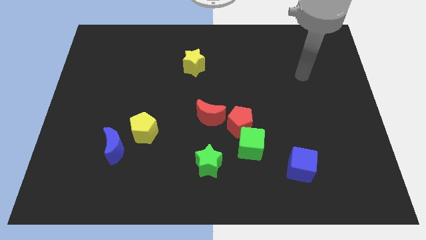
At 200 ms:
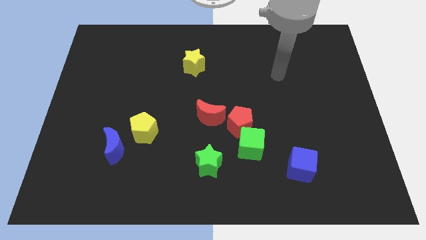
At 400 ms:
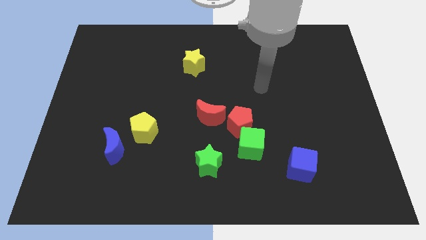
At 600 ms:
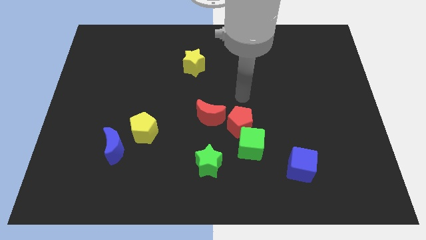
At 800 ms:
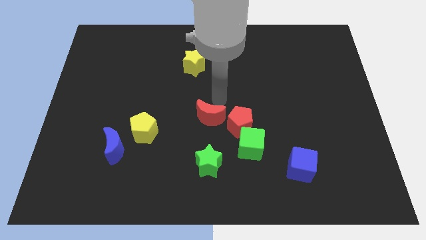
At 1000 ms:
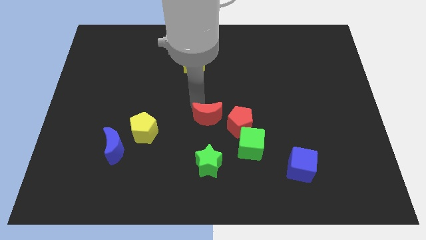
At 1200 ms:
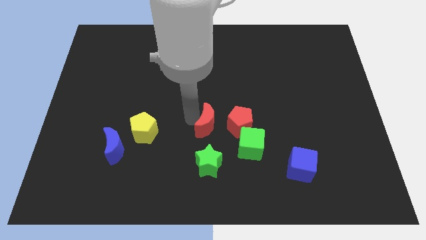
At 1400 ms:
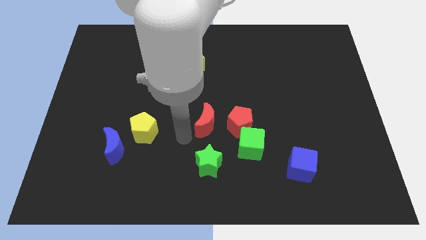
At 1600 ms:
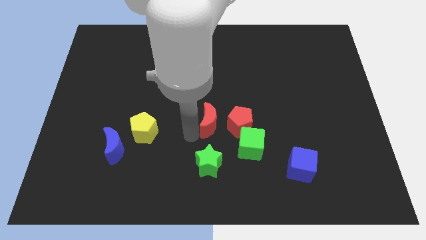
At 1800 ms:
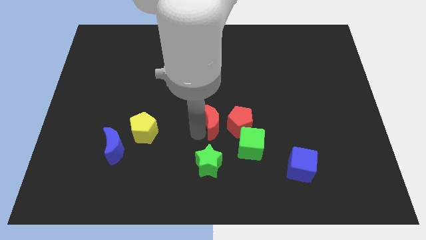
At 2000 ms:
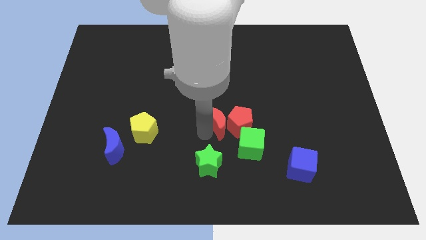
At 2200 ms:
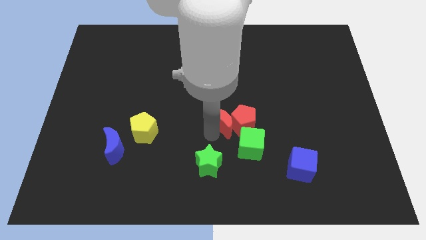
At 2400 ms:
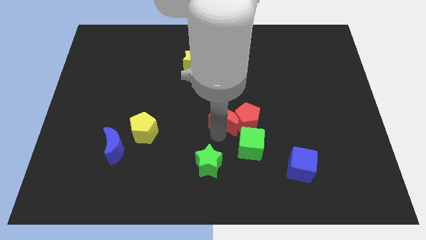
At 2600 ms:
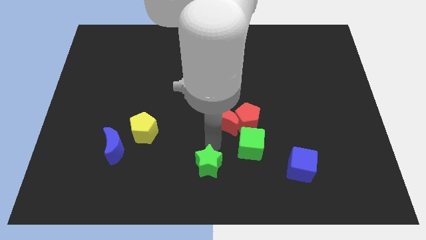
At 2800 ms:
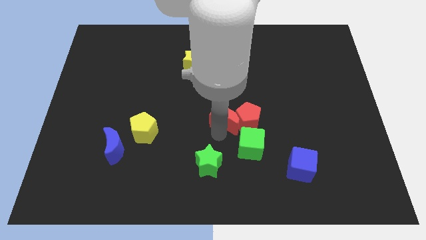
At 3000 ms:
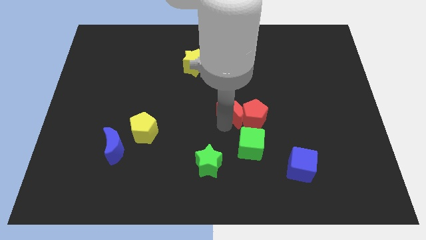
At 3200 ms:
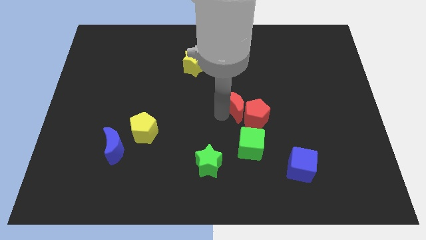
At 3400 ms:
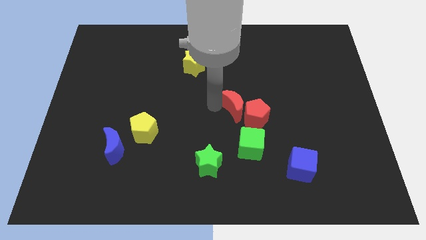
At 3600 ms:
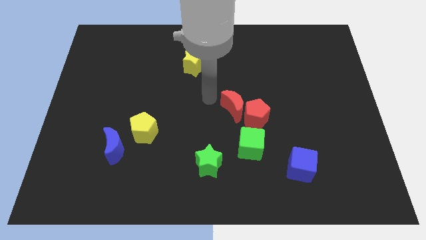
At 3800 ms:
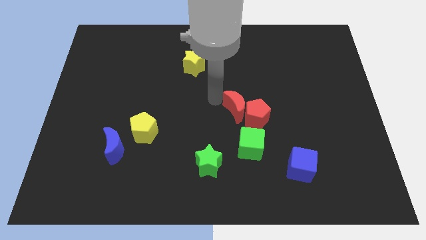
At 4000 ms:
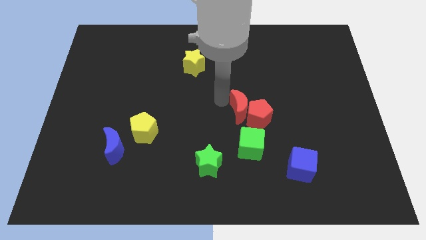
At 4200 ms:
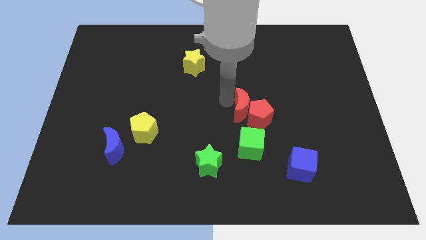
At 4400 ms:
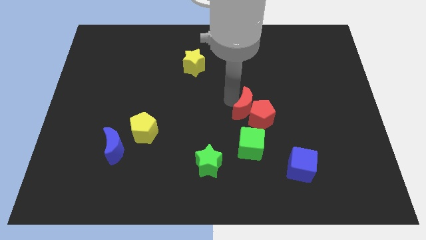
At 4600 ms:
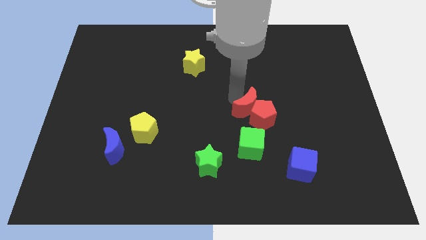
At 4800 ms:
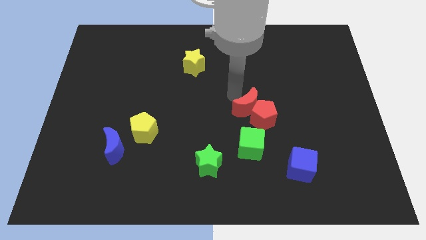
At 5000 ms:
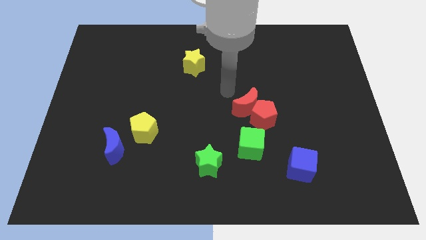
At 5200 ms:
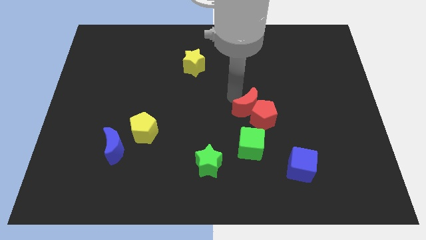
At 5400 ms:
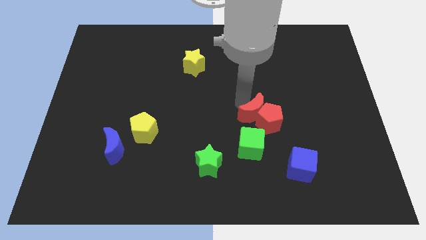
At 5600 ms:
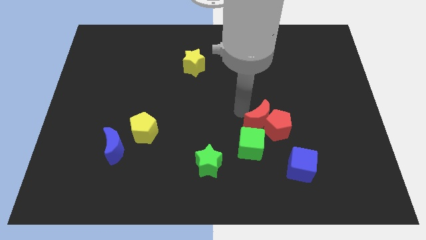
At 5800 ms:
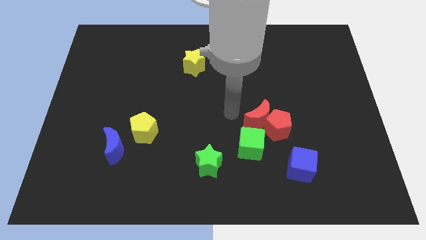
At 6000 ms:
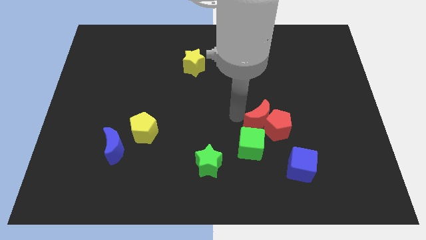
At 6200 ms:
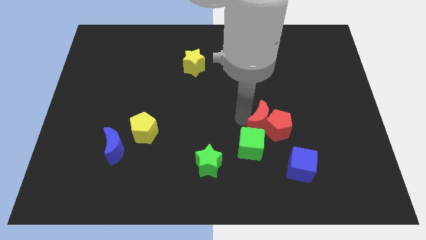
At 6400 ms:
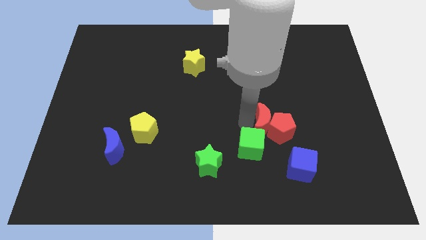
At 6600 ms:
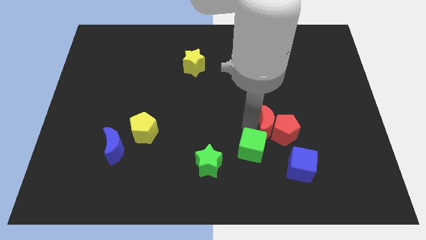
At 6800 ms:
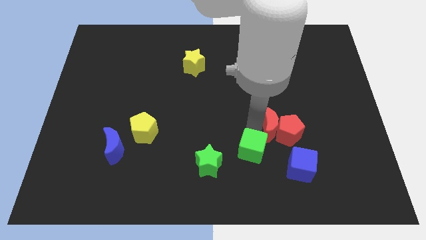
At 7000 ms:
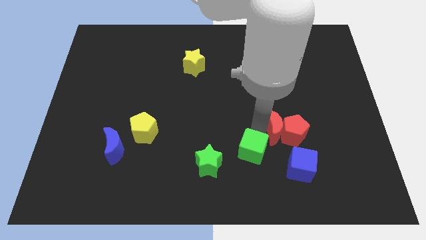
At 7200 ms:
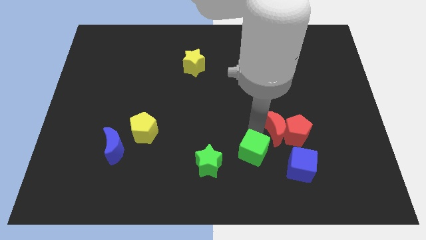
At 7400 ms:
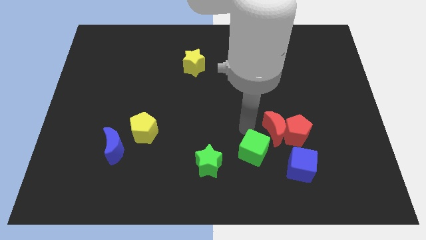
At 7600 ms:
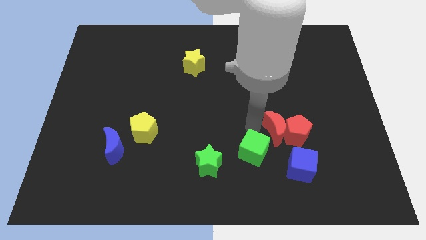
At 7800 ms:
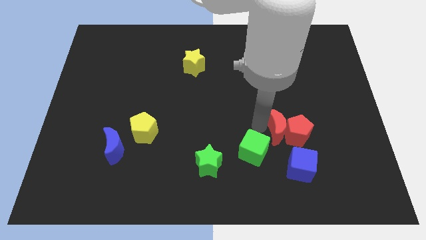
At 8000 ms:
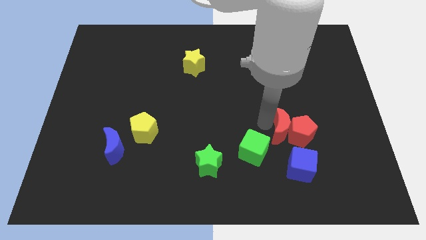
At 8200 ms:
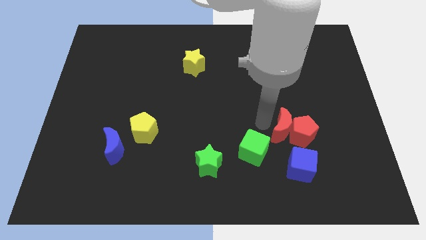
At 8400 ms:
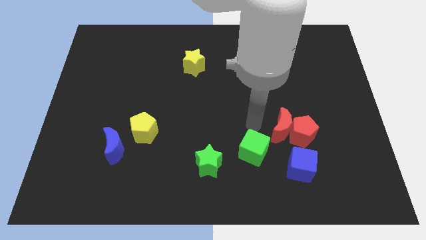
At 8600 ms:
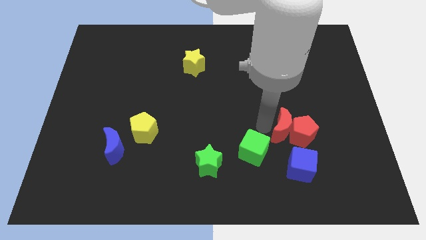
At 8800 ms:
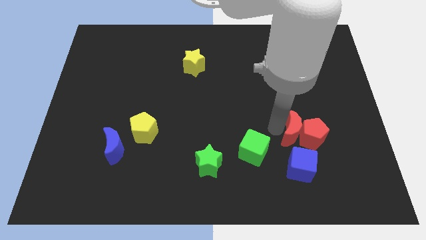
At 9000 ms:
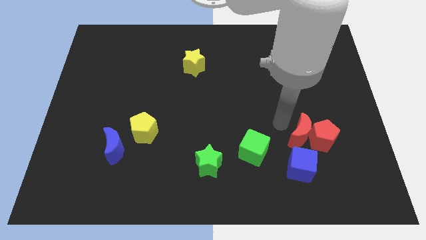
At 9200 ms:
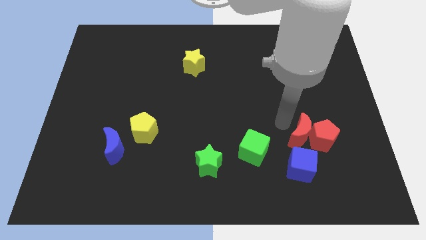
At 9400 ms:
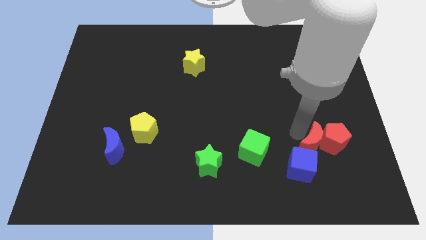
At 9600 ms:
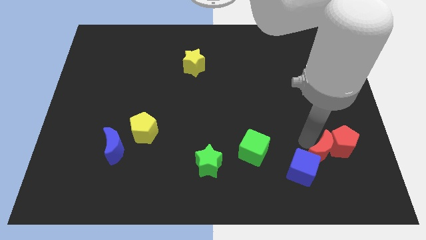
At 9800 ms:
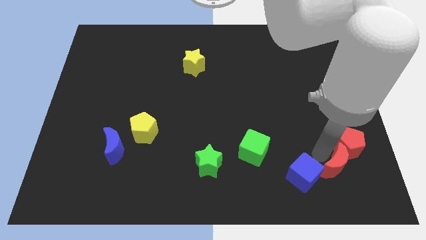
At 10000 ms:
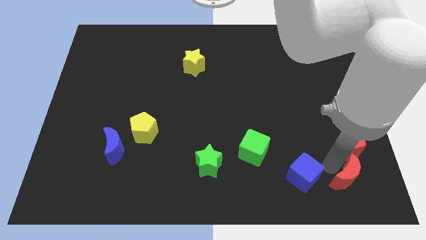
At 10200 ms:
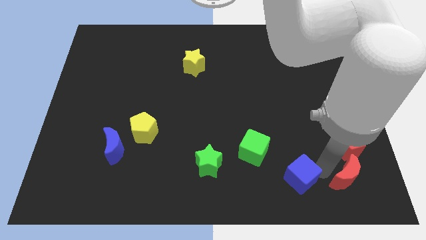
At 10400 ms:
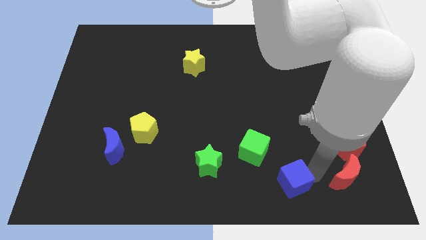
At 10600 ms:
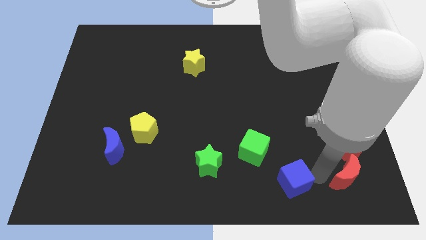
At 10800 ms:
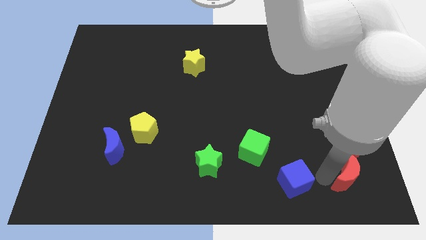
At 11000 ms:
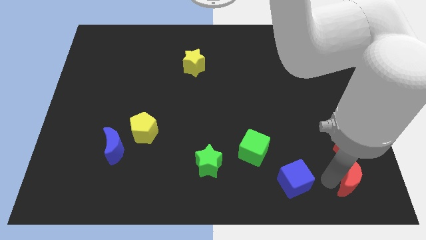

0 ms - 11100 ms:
move the red moon to the lower right corner

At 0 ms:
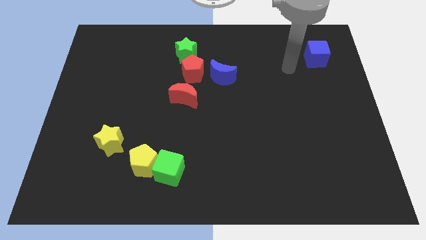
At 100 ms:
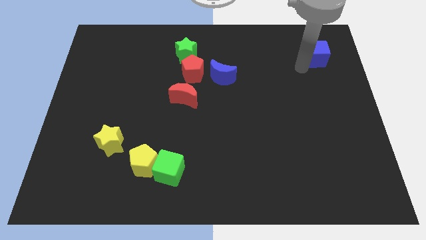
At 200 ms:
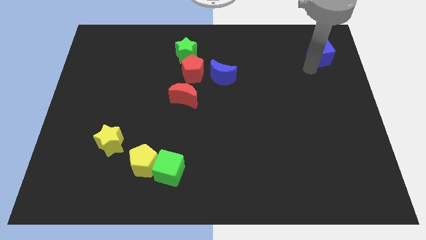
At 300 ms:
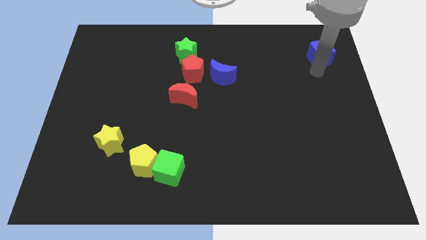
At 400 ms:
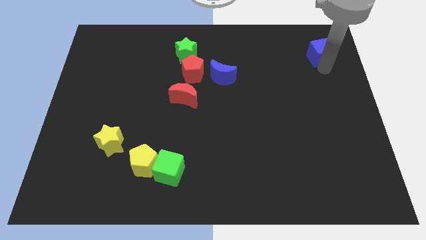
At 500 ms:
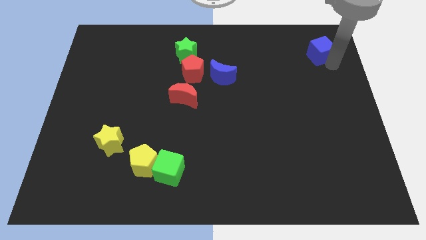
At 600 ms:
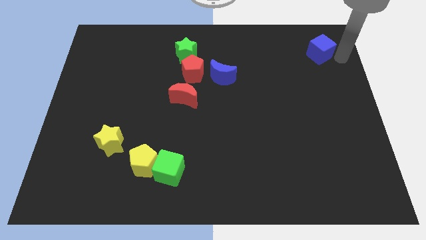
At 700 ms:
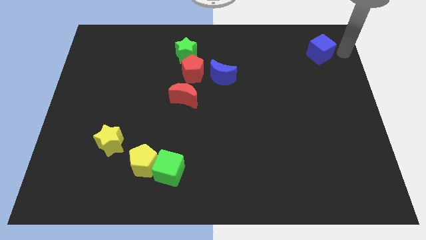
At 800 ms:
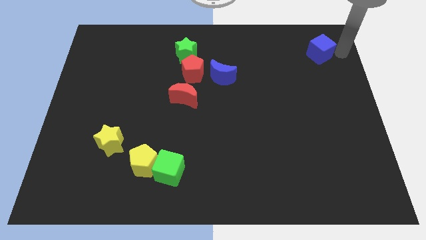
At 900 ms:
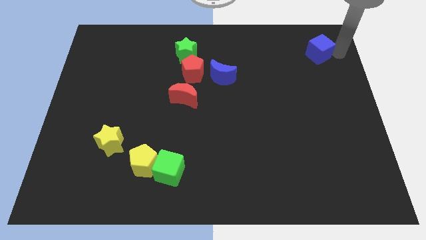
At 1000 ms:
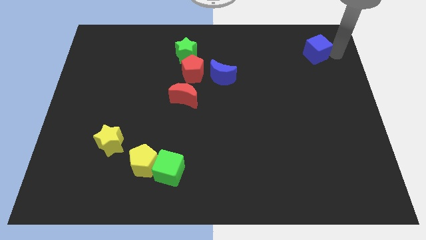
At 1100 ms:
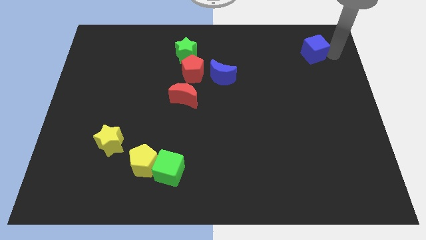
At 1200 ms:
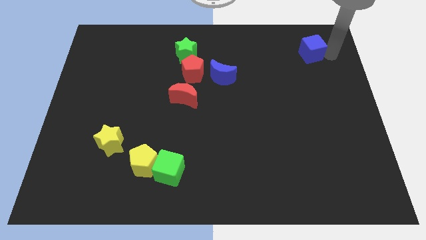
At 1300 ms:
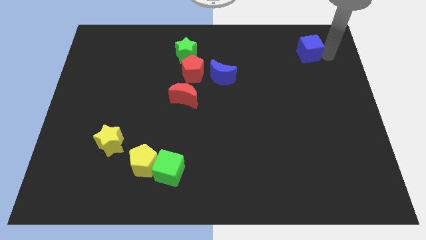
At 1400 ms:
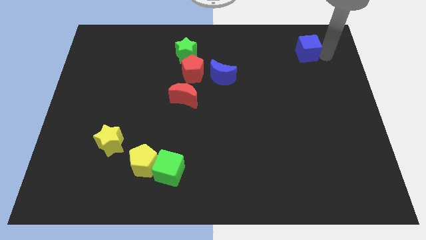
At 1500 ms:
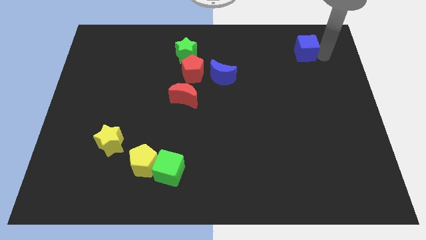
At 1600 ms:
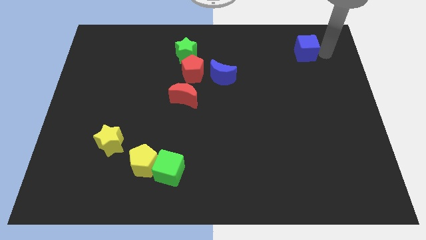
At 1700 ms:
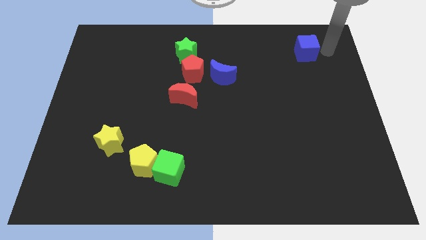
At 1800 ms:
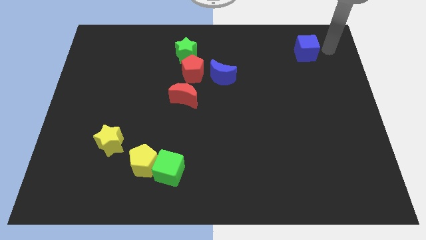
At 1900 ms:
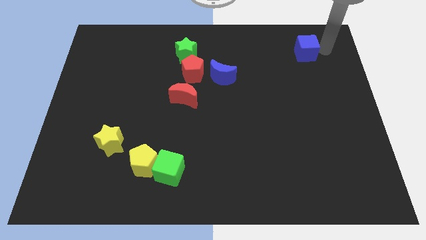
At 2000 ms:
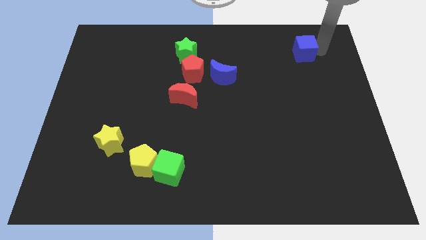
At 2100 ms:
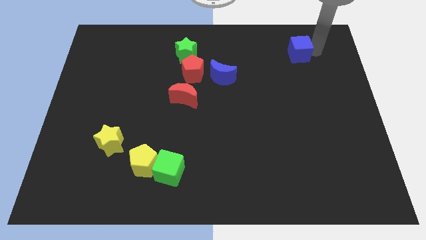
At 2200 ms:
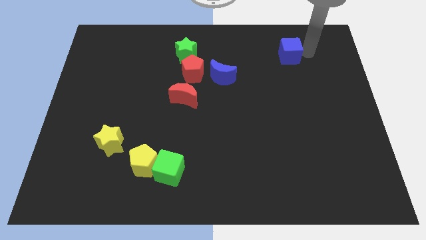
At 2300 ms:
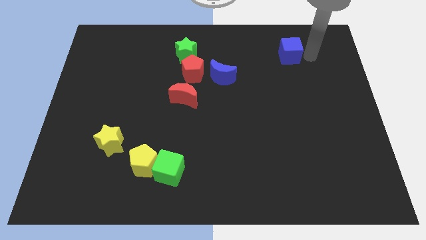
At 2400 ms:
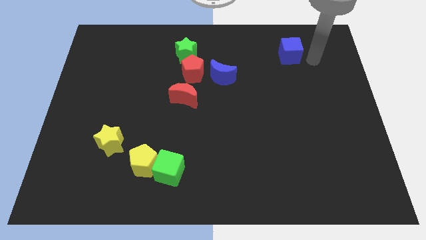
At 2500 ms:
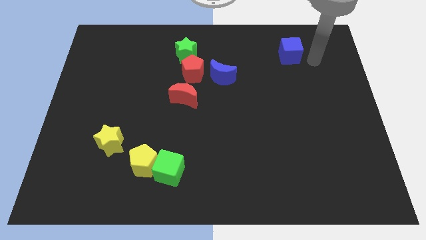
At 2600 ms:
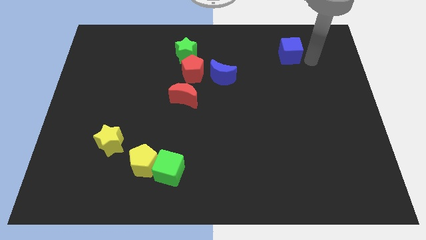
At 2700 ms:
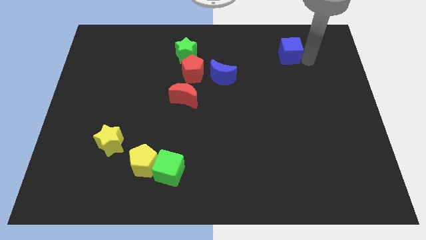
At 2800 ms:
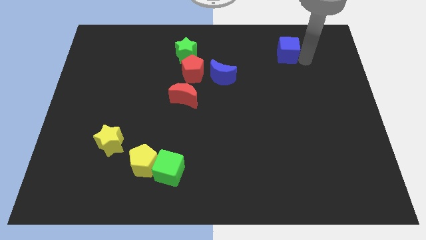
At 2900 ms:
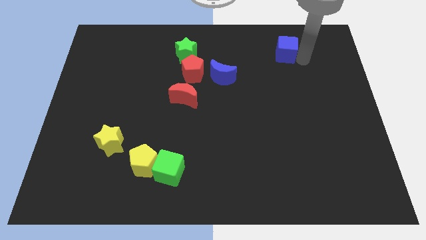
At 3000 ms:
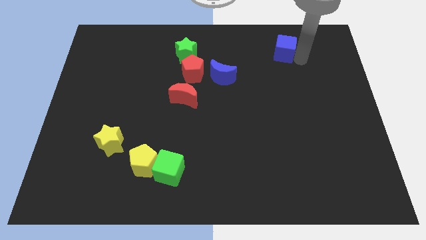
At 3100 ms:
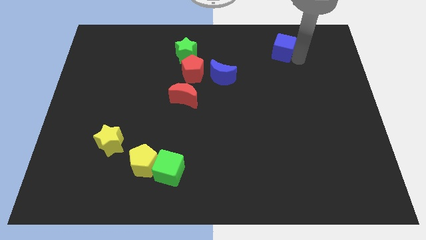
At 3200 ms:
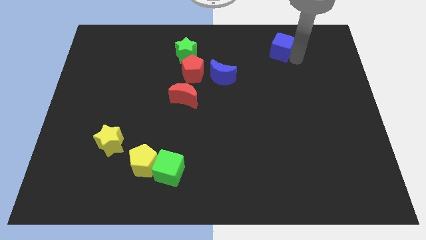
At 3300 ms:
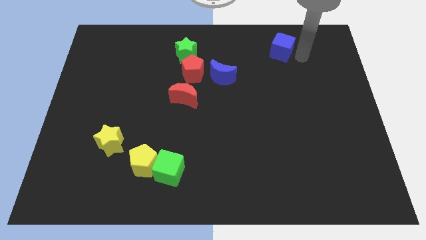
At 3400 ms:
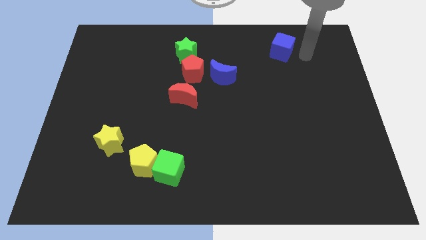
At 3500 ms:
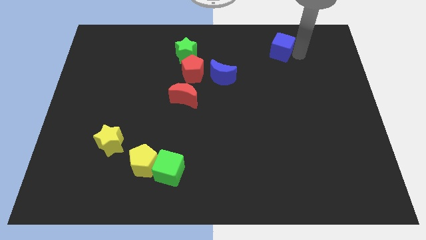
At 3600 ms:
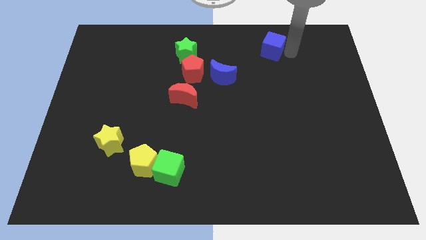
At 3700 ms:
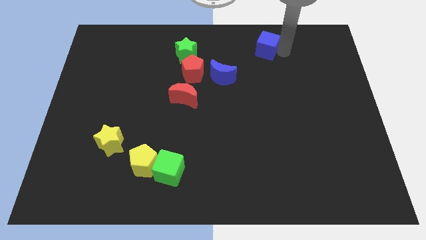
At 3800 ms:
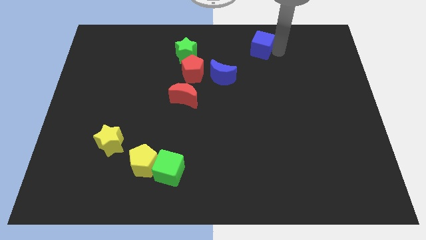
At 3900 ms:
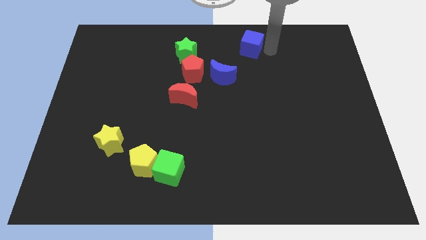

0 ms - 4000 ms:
push the blue cube to the top side
